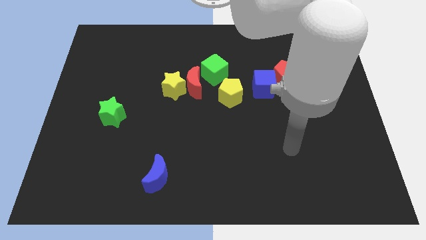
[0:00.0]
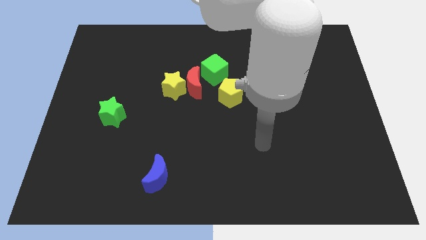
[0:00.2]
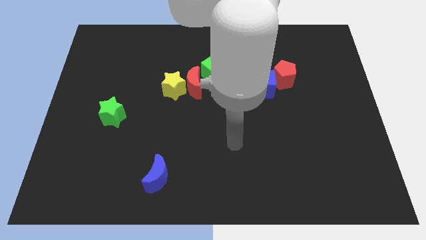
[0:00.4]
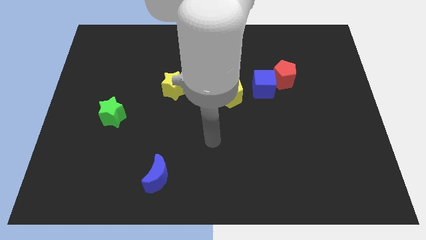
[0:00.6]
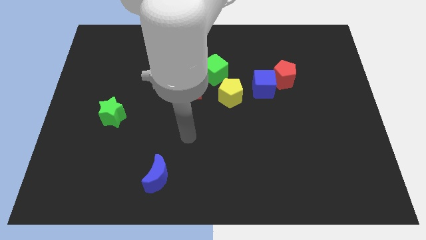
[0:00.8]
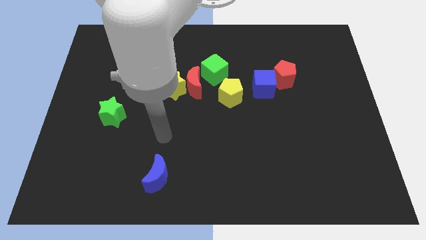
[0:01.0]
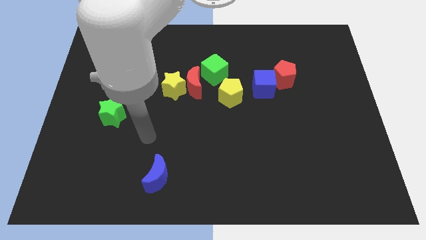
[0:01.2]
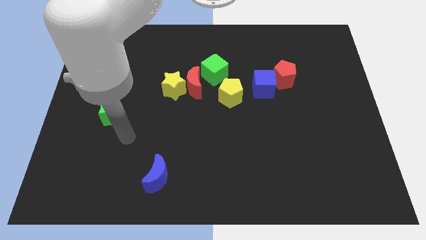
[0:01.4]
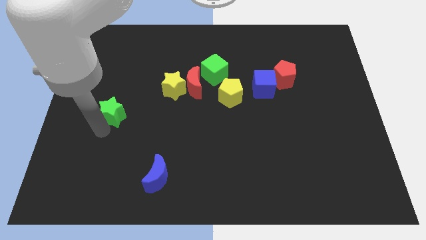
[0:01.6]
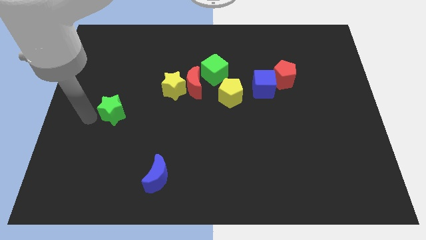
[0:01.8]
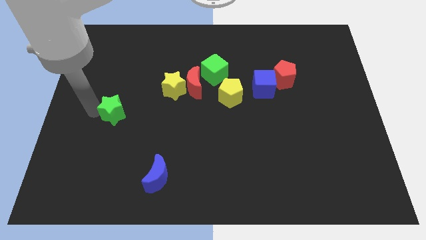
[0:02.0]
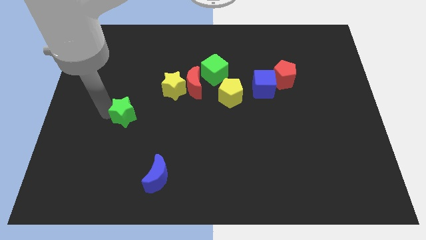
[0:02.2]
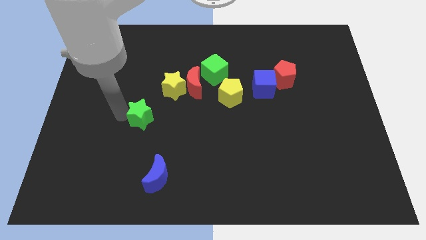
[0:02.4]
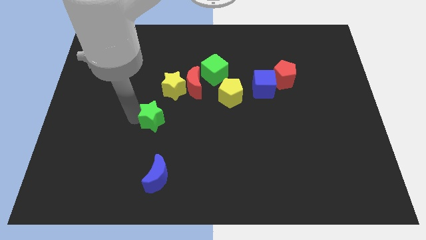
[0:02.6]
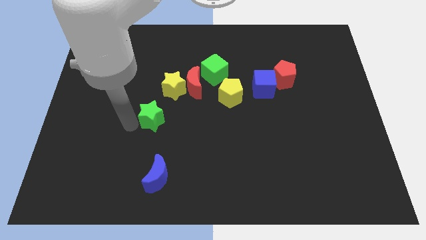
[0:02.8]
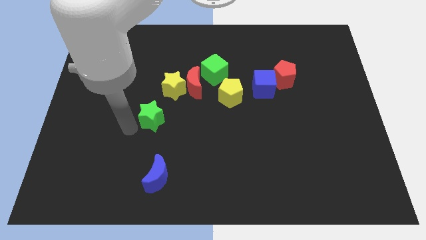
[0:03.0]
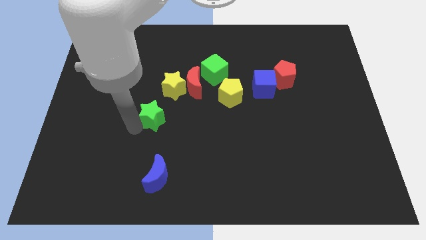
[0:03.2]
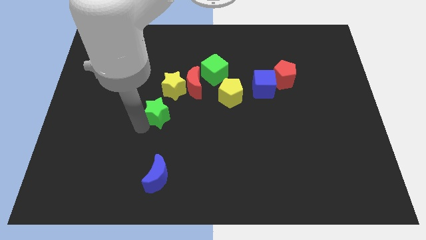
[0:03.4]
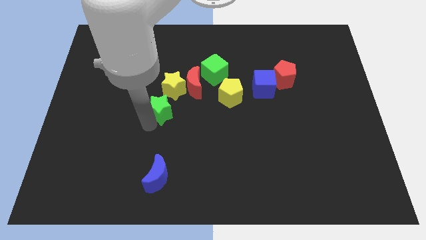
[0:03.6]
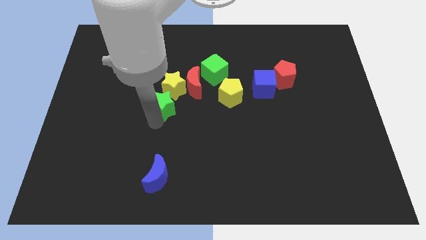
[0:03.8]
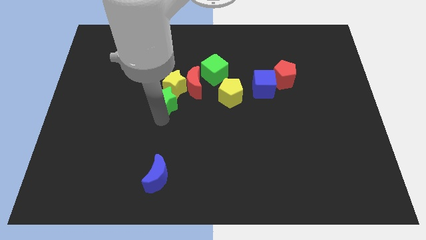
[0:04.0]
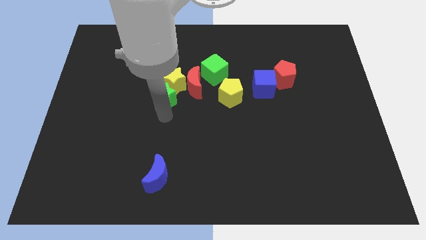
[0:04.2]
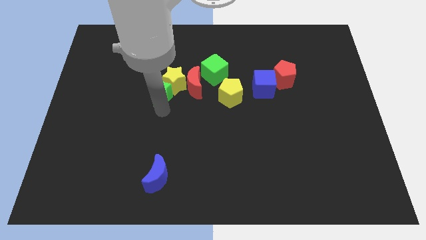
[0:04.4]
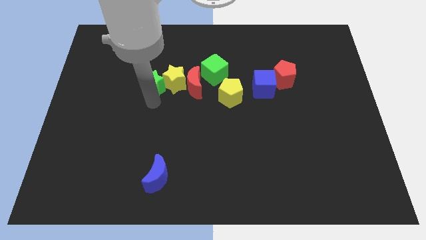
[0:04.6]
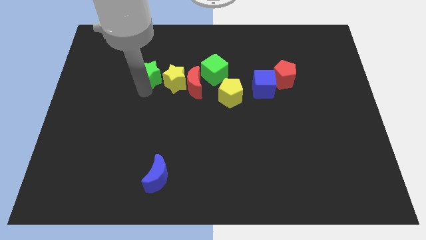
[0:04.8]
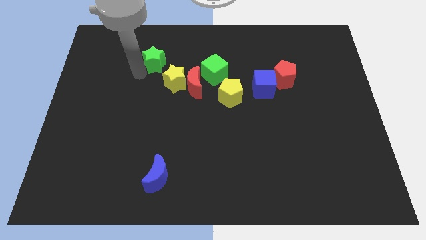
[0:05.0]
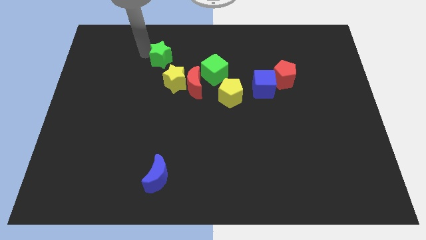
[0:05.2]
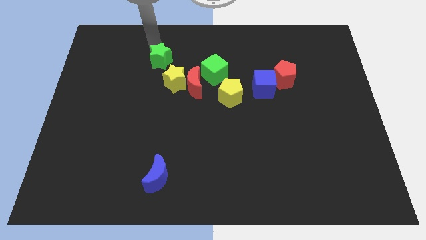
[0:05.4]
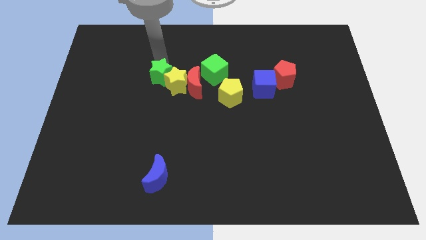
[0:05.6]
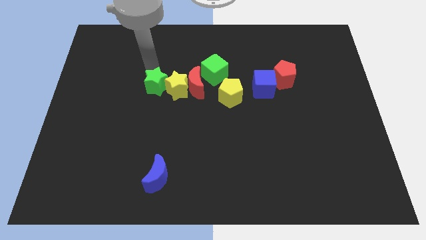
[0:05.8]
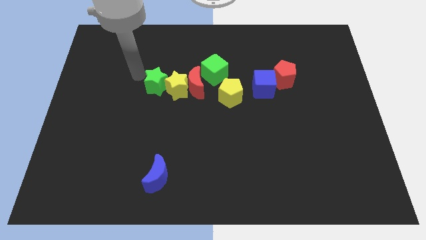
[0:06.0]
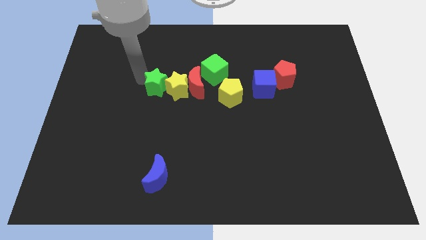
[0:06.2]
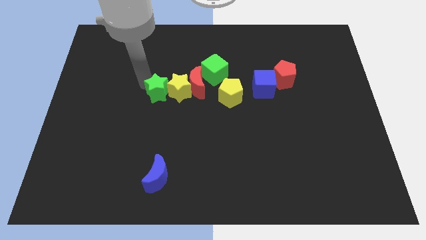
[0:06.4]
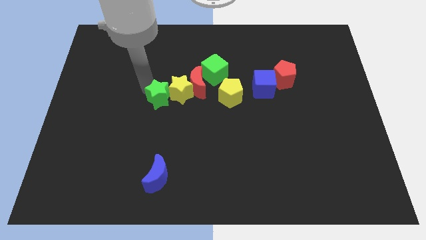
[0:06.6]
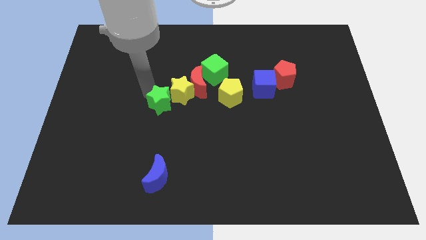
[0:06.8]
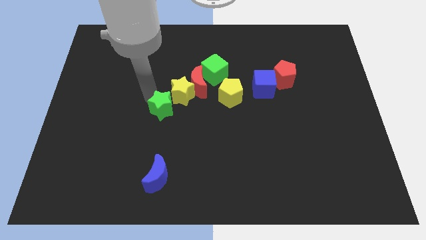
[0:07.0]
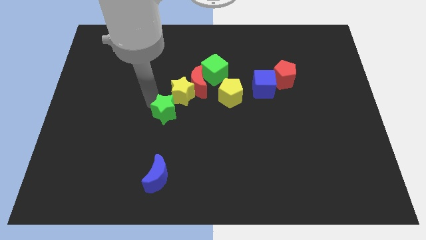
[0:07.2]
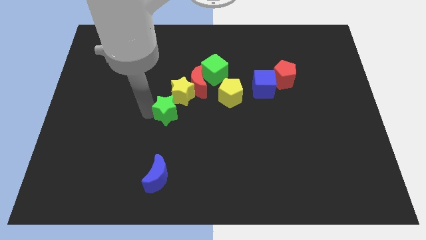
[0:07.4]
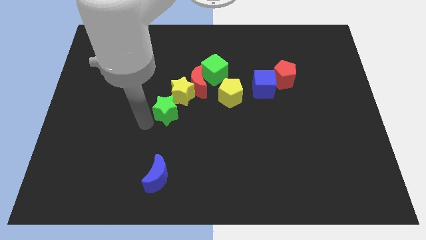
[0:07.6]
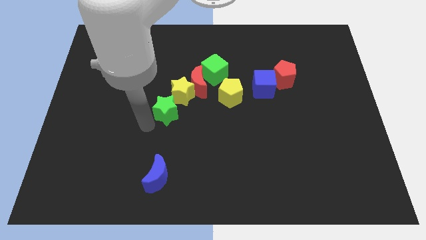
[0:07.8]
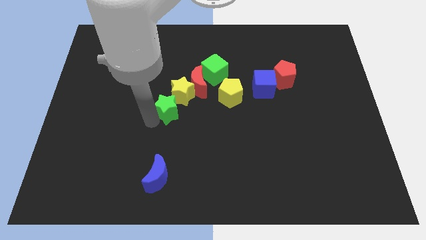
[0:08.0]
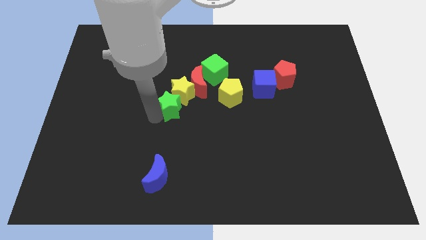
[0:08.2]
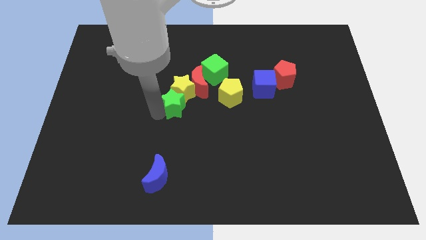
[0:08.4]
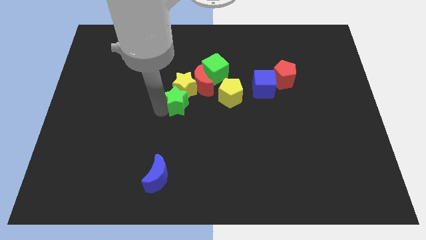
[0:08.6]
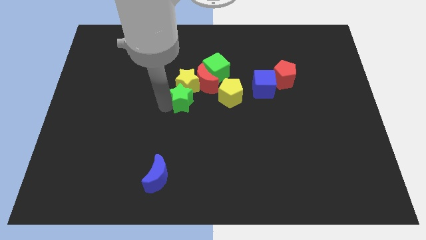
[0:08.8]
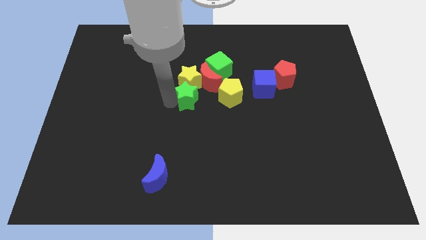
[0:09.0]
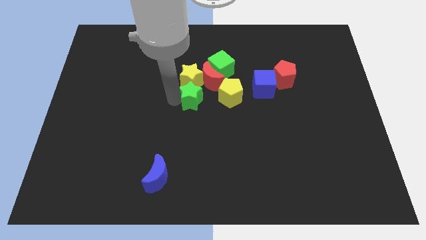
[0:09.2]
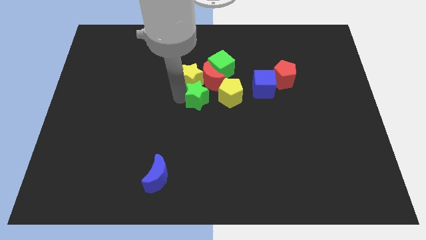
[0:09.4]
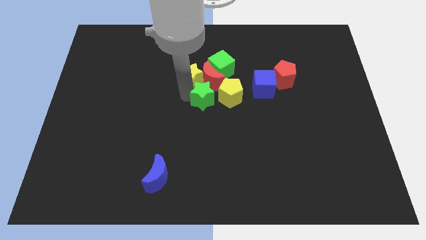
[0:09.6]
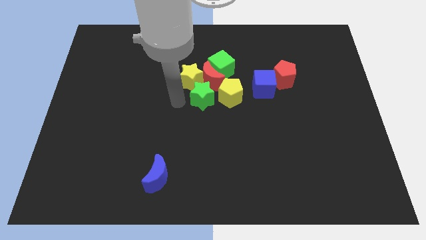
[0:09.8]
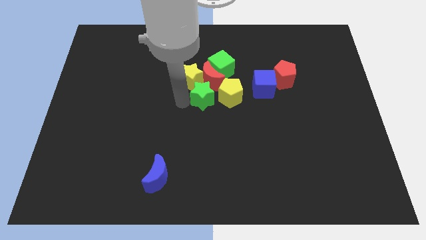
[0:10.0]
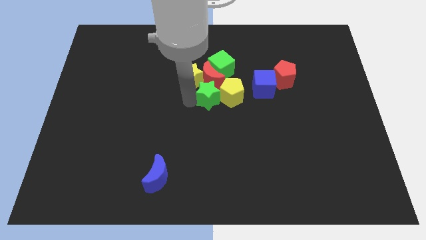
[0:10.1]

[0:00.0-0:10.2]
push the green star towards the yellow pentagon
